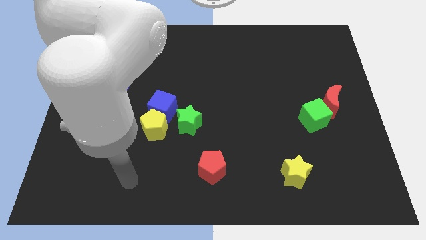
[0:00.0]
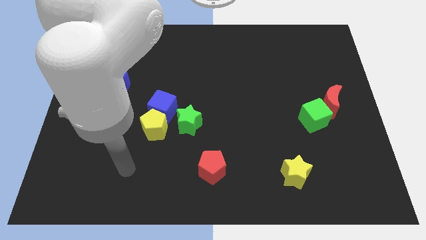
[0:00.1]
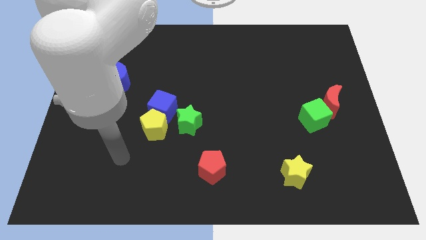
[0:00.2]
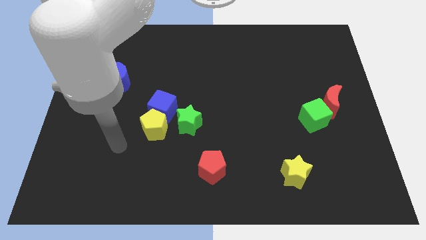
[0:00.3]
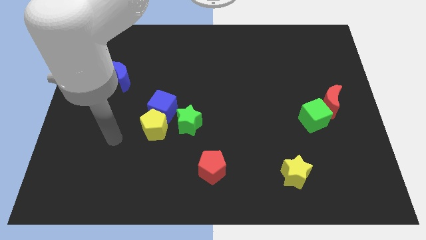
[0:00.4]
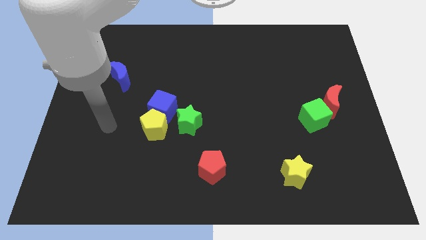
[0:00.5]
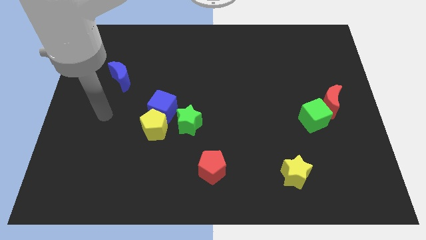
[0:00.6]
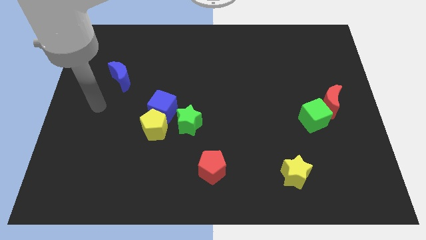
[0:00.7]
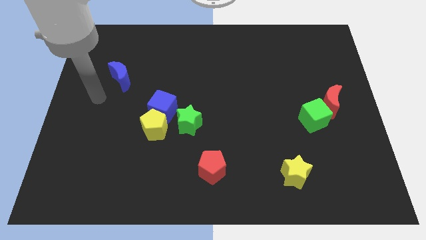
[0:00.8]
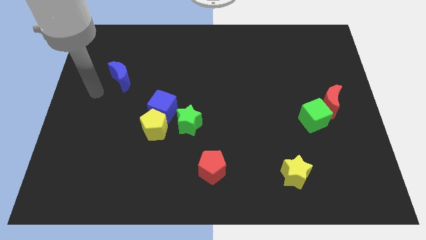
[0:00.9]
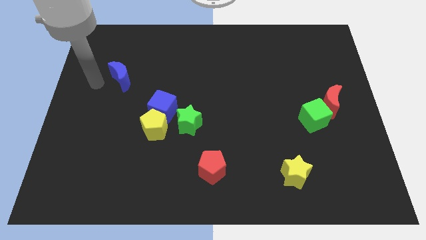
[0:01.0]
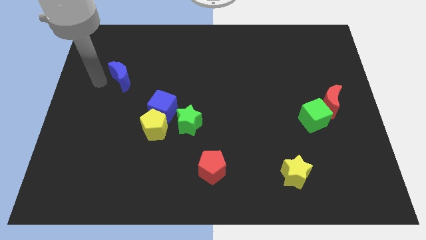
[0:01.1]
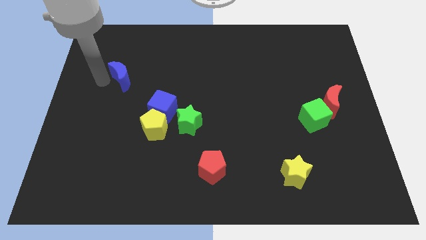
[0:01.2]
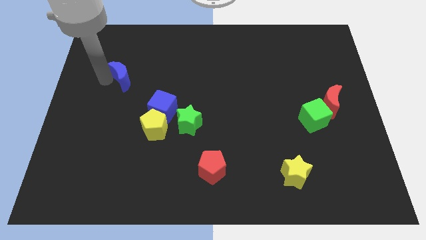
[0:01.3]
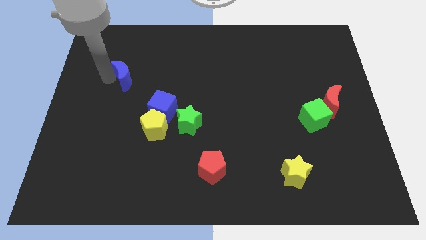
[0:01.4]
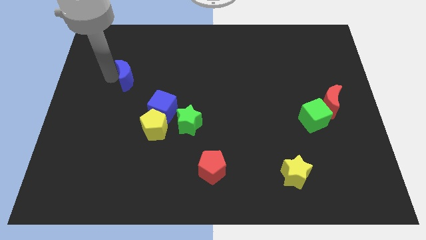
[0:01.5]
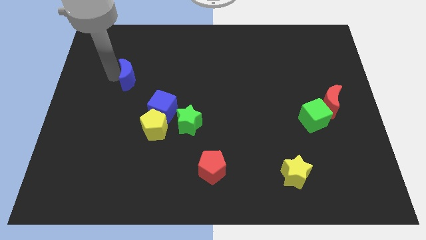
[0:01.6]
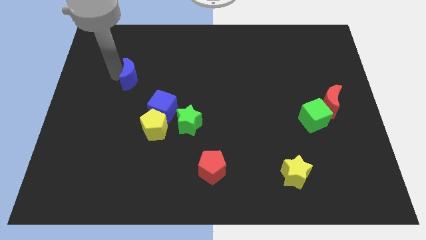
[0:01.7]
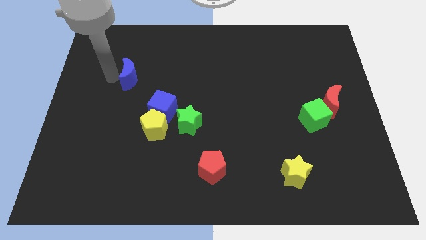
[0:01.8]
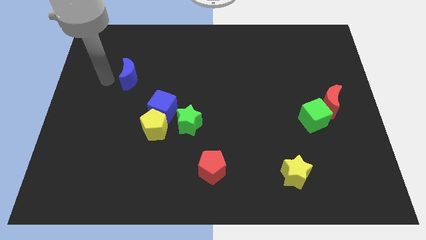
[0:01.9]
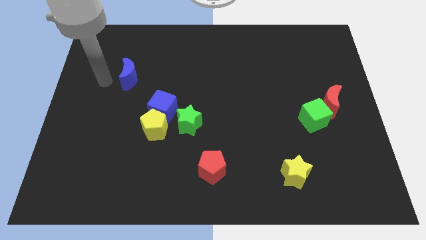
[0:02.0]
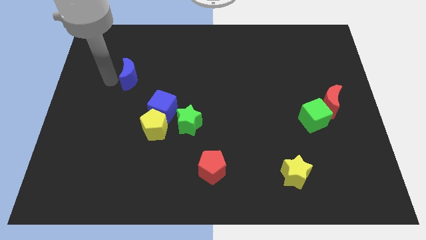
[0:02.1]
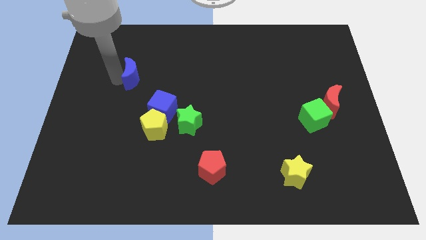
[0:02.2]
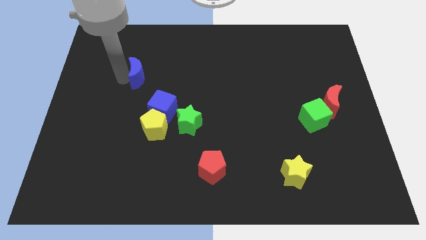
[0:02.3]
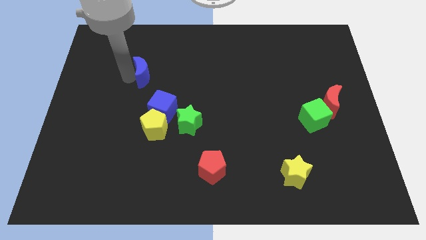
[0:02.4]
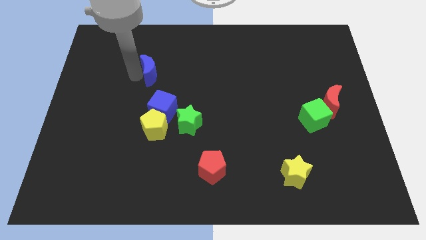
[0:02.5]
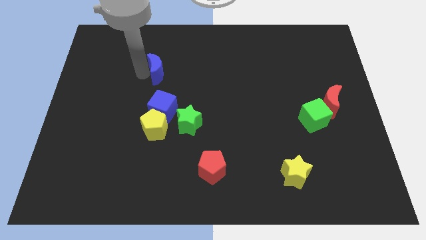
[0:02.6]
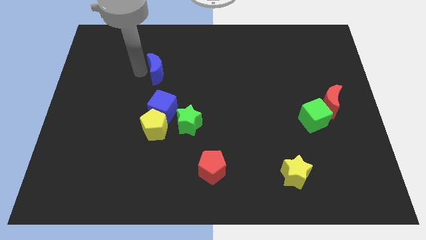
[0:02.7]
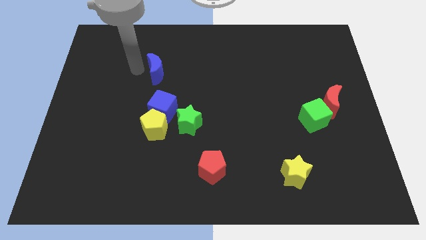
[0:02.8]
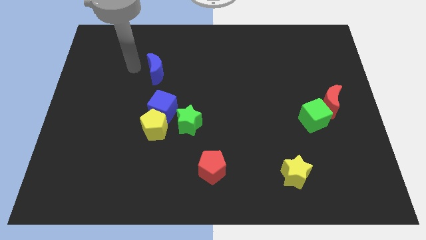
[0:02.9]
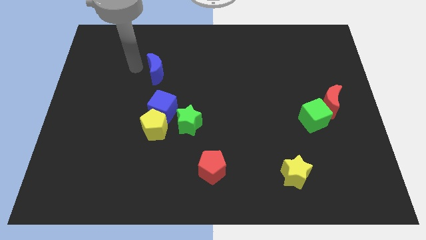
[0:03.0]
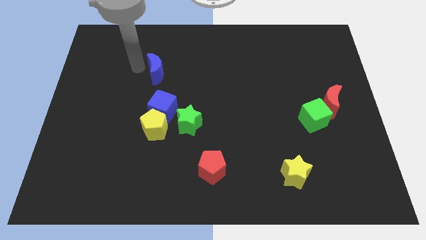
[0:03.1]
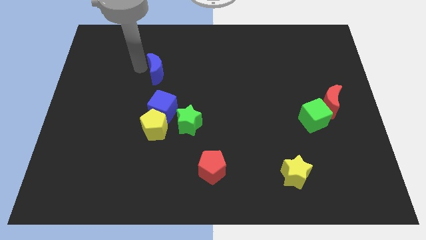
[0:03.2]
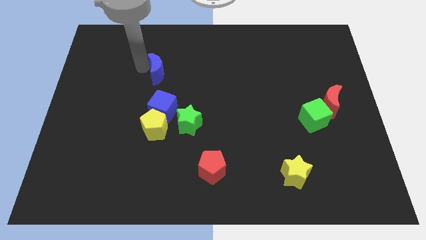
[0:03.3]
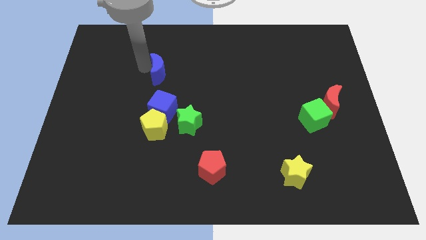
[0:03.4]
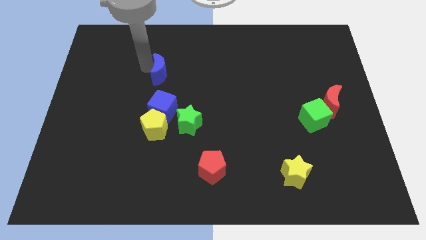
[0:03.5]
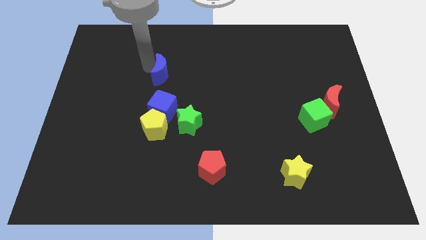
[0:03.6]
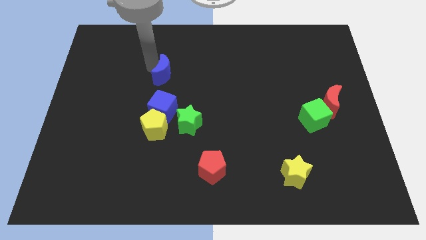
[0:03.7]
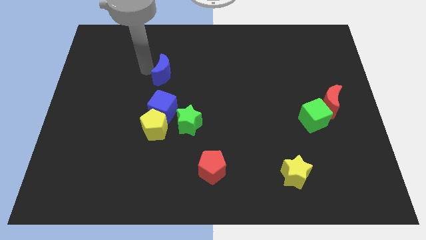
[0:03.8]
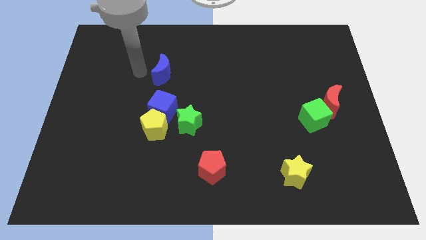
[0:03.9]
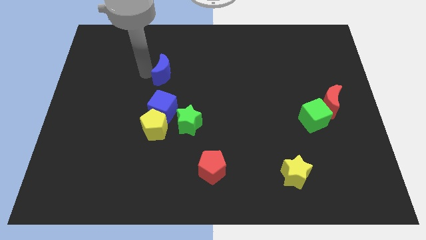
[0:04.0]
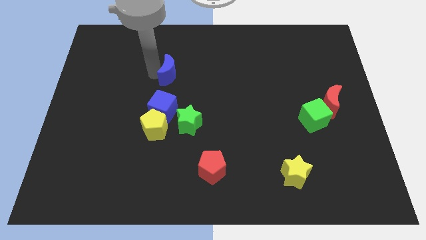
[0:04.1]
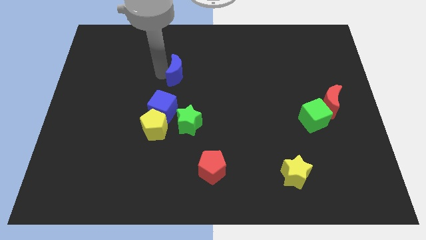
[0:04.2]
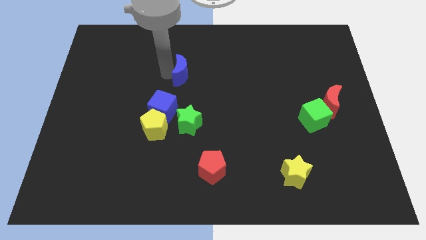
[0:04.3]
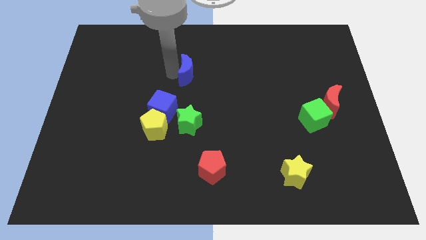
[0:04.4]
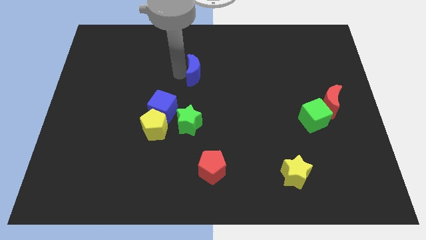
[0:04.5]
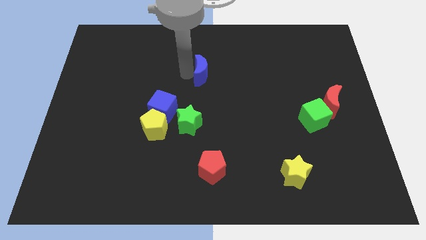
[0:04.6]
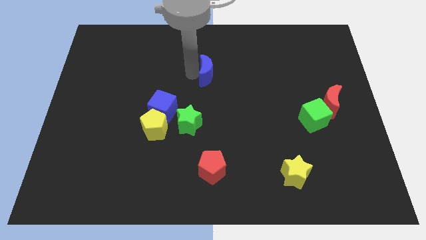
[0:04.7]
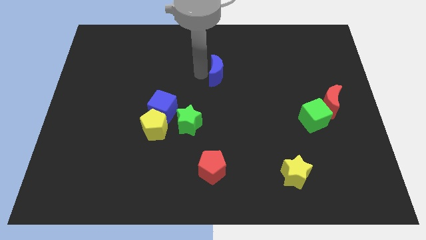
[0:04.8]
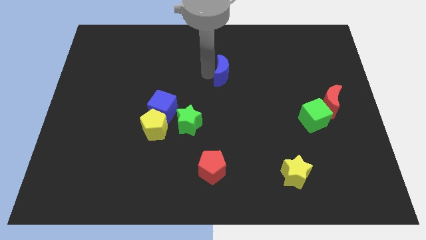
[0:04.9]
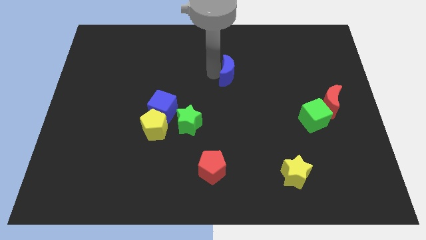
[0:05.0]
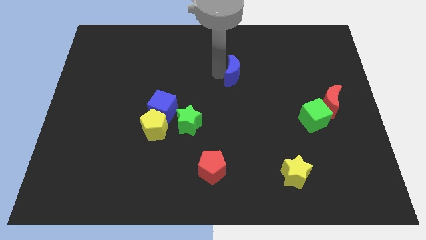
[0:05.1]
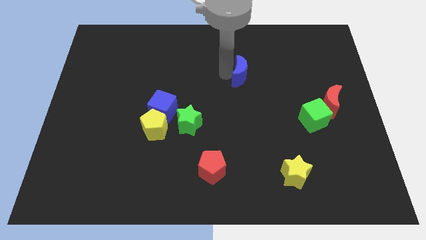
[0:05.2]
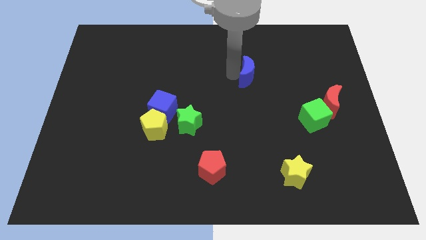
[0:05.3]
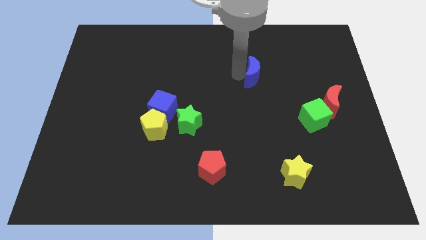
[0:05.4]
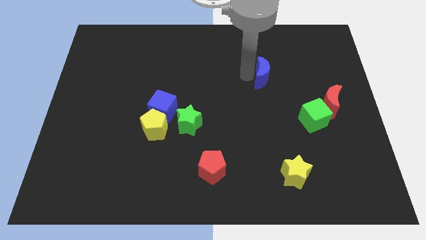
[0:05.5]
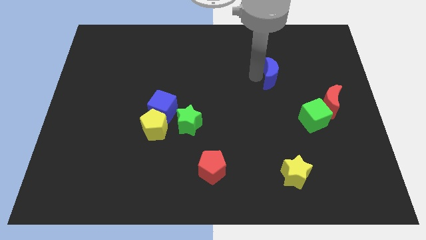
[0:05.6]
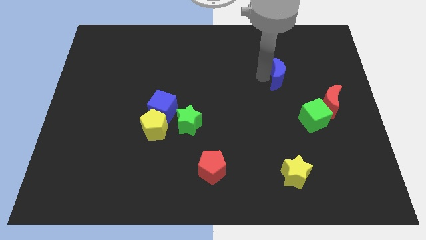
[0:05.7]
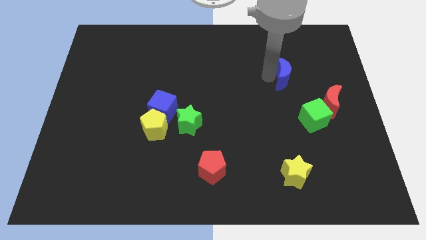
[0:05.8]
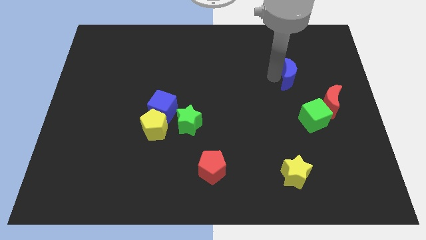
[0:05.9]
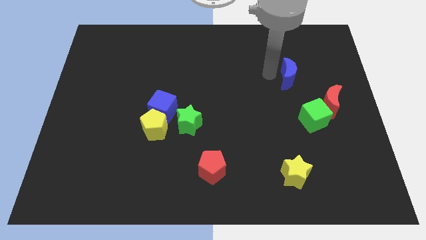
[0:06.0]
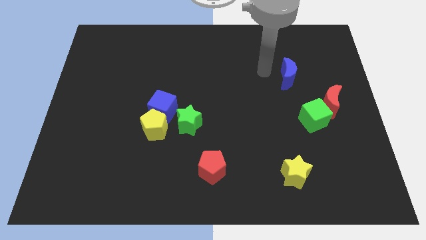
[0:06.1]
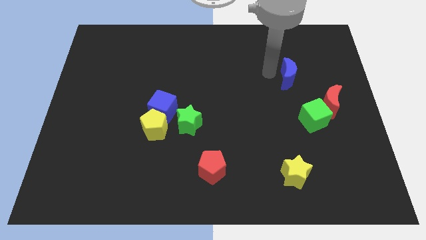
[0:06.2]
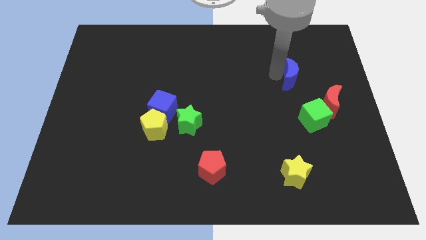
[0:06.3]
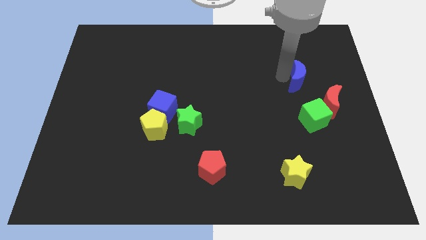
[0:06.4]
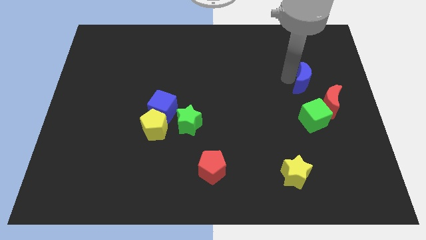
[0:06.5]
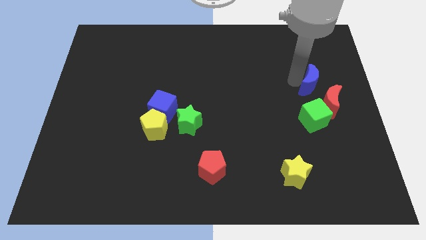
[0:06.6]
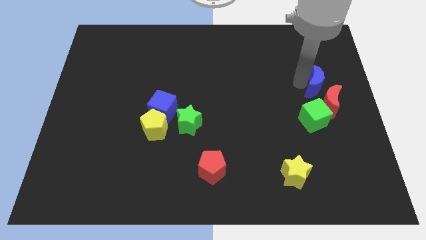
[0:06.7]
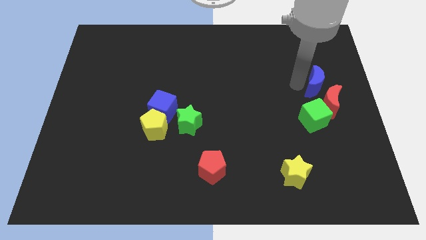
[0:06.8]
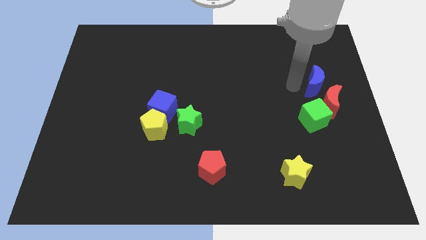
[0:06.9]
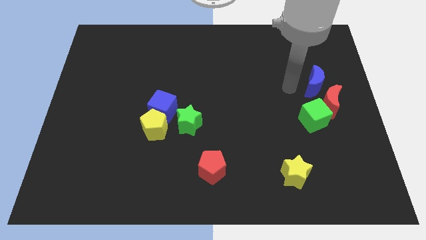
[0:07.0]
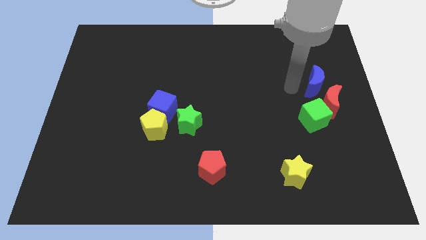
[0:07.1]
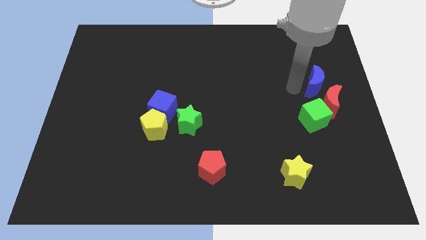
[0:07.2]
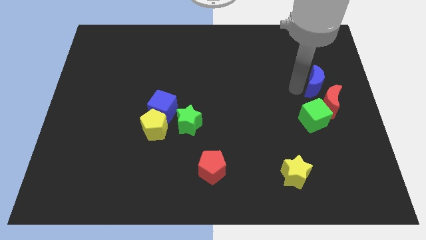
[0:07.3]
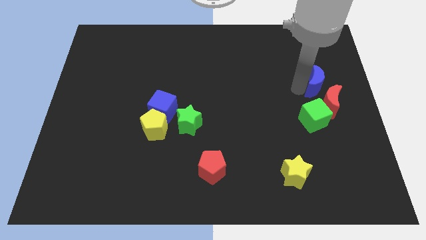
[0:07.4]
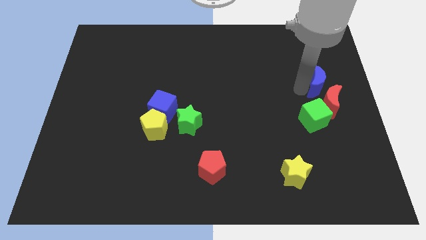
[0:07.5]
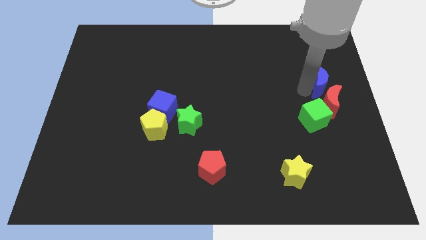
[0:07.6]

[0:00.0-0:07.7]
push the blue moon to the right side of the board
